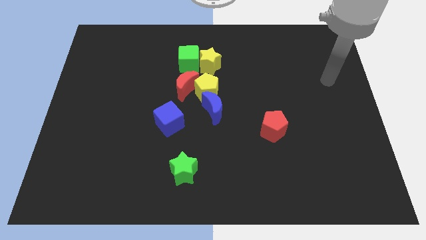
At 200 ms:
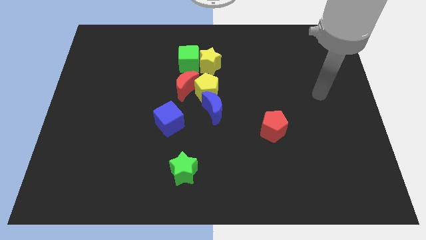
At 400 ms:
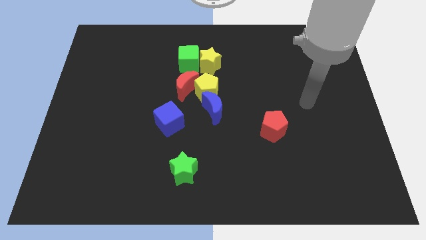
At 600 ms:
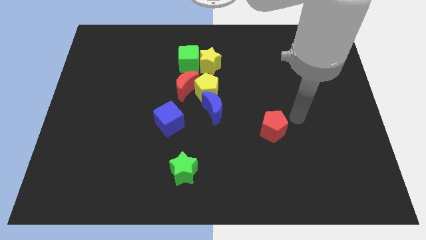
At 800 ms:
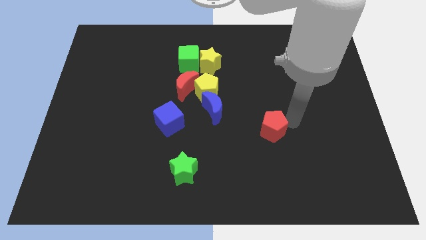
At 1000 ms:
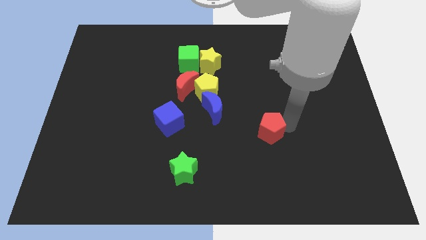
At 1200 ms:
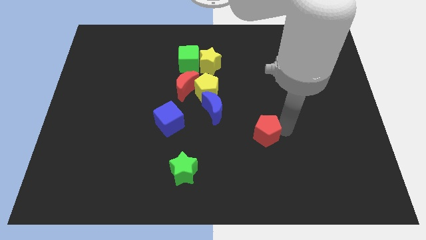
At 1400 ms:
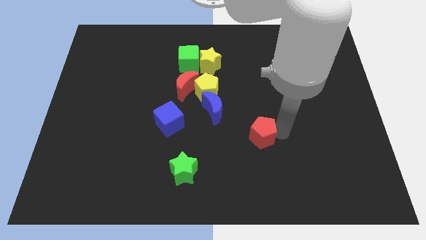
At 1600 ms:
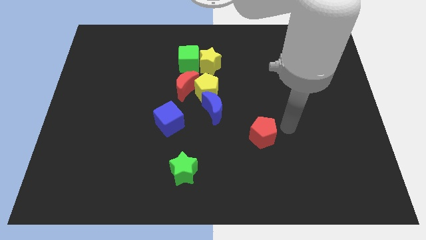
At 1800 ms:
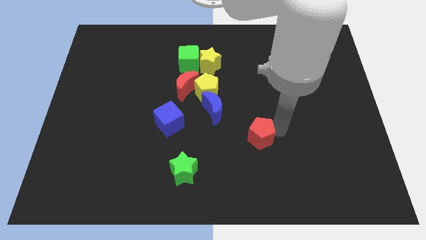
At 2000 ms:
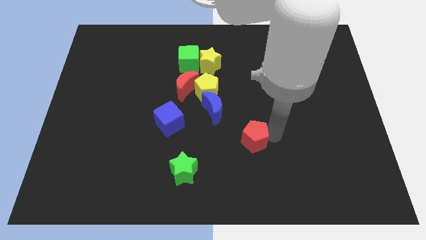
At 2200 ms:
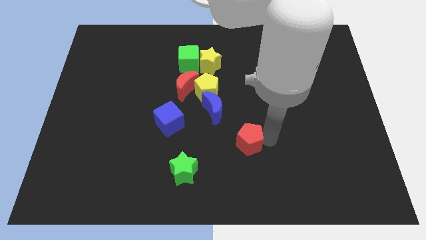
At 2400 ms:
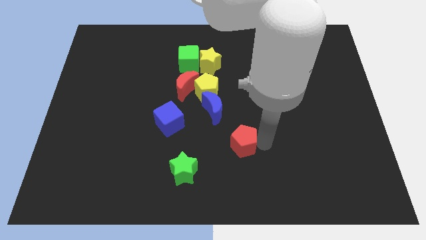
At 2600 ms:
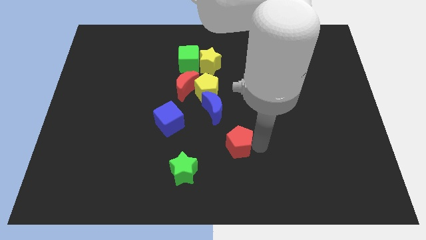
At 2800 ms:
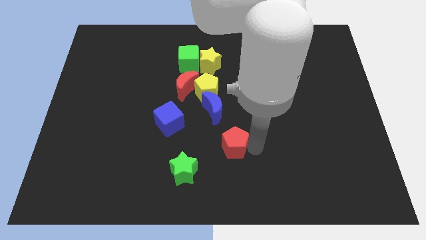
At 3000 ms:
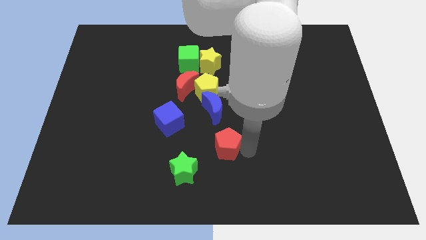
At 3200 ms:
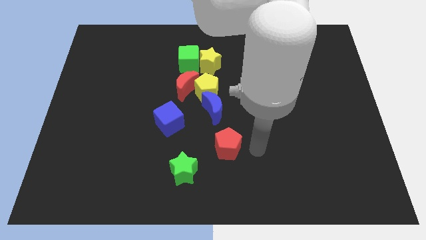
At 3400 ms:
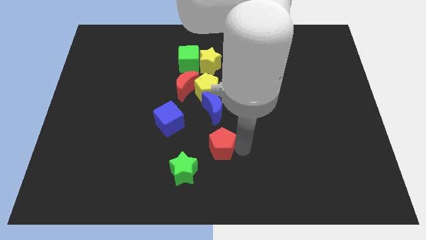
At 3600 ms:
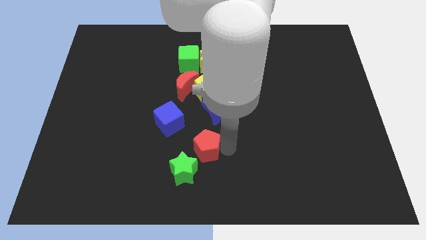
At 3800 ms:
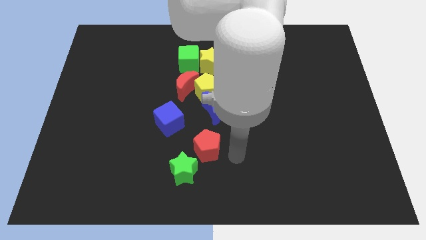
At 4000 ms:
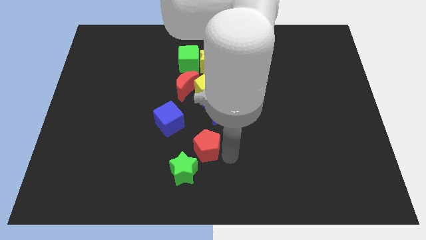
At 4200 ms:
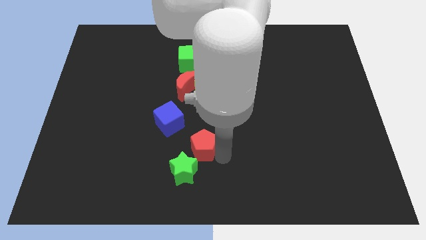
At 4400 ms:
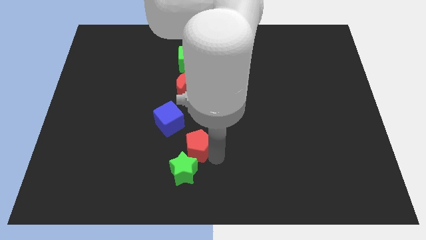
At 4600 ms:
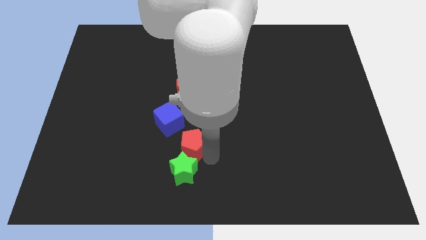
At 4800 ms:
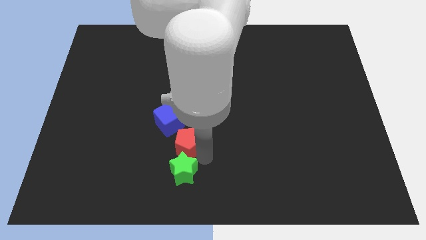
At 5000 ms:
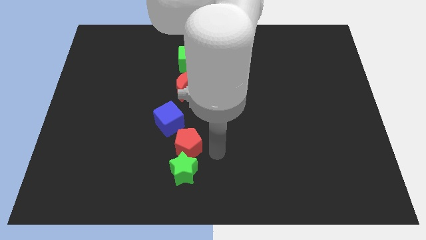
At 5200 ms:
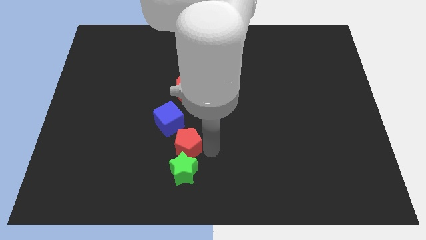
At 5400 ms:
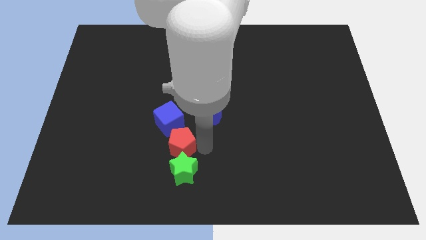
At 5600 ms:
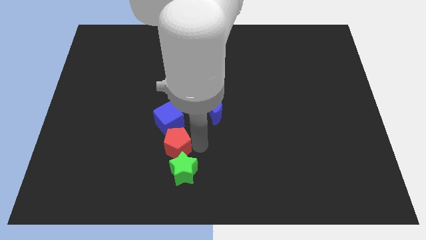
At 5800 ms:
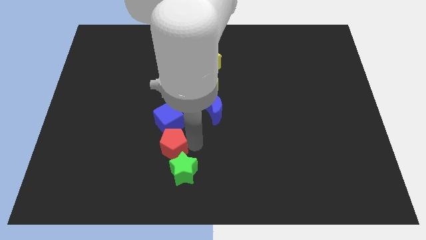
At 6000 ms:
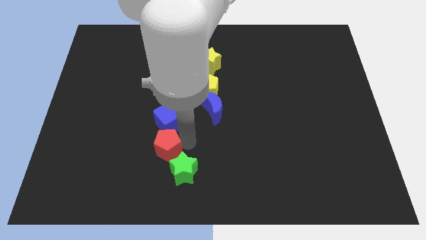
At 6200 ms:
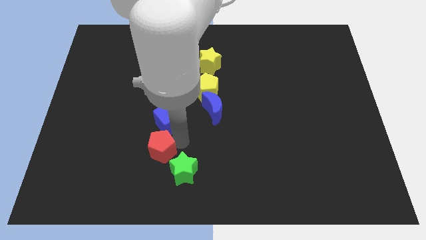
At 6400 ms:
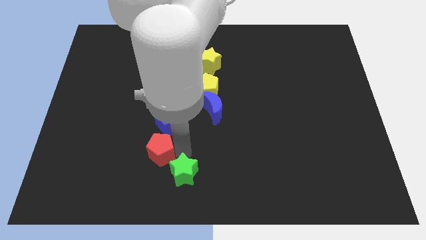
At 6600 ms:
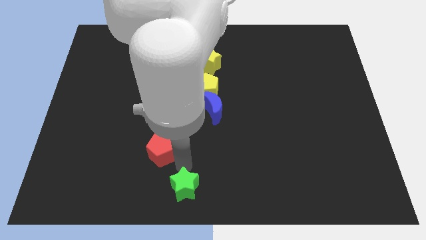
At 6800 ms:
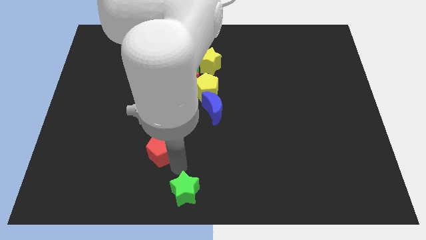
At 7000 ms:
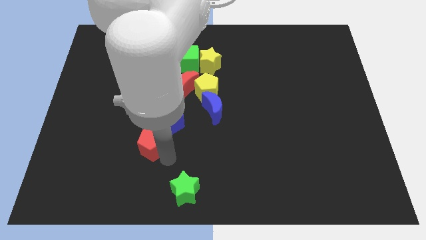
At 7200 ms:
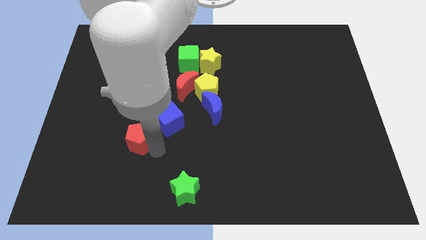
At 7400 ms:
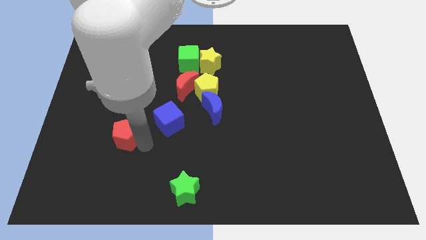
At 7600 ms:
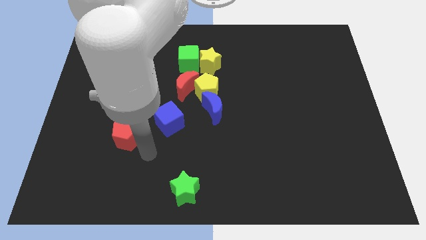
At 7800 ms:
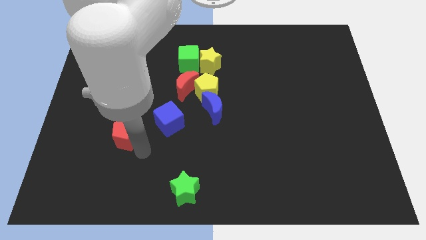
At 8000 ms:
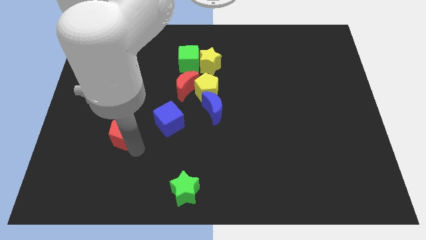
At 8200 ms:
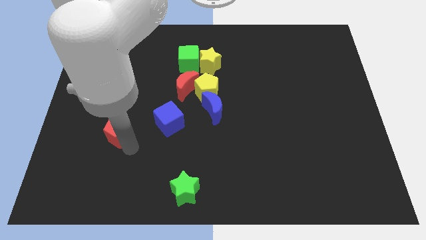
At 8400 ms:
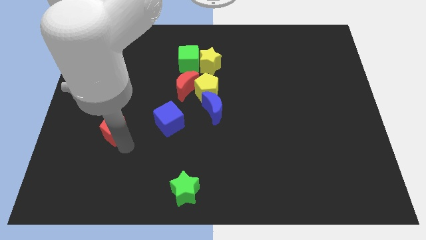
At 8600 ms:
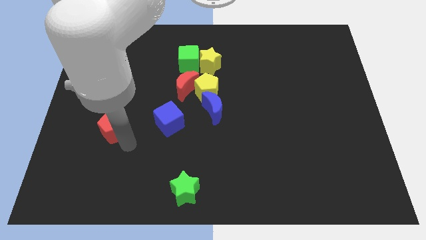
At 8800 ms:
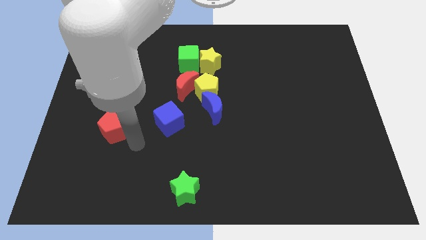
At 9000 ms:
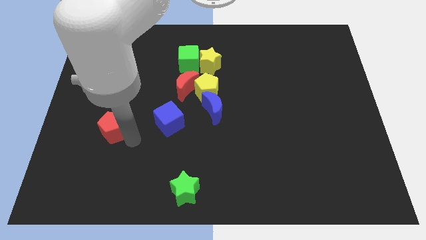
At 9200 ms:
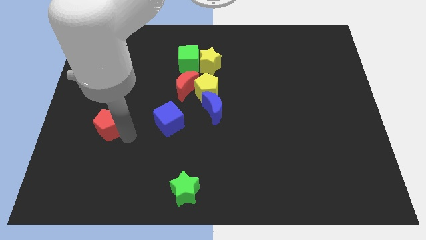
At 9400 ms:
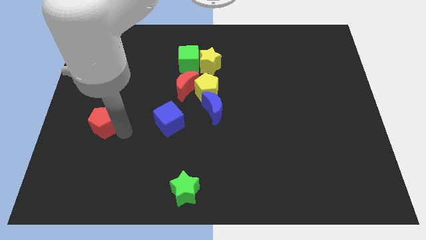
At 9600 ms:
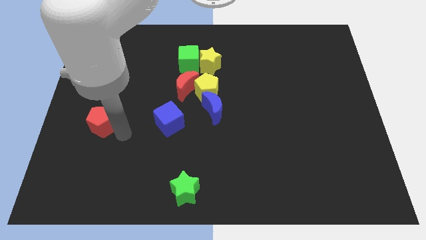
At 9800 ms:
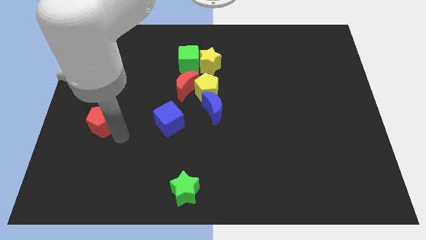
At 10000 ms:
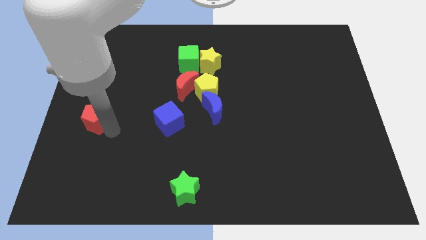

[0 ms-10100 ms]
slide the red pentagon to the left side

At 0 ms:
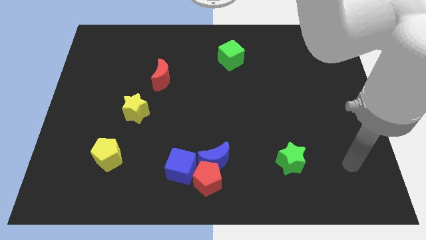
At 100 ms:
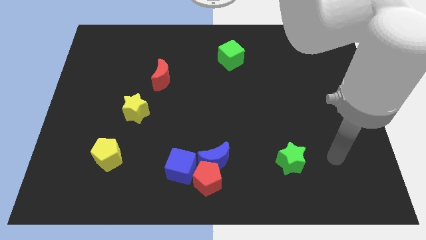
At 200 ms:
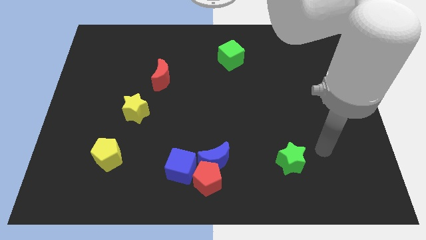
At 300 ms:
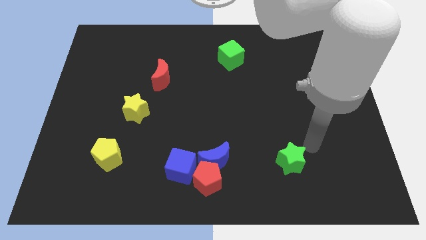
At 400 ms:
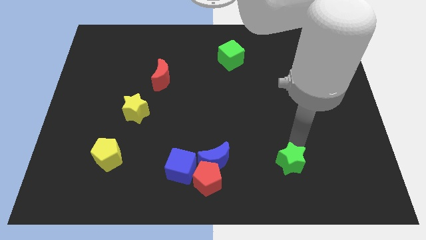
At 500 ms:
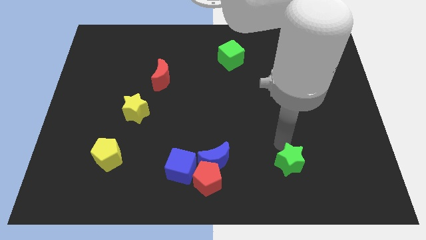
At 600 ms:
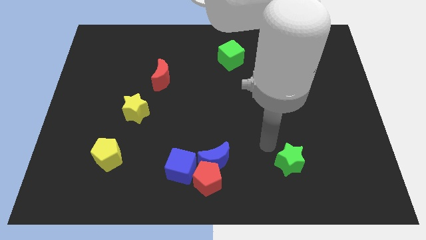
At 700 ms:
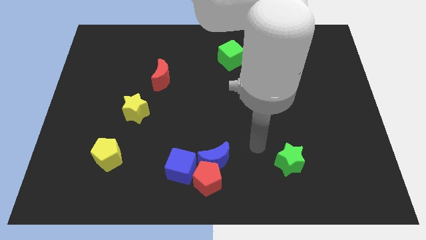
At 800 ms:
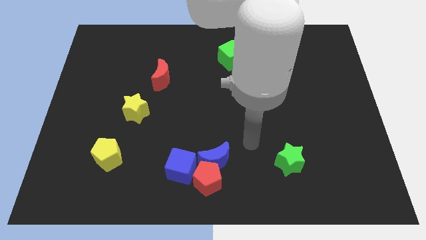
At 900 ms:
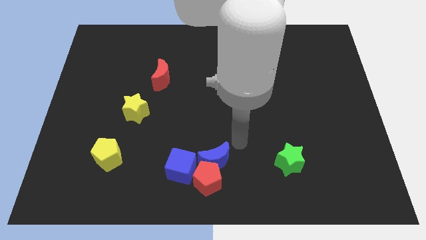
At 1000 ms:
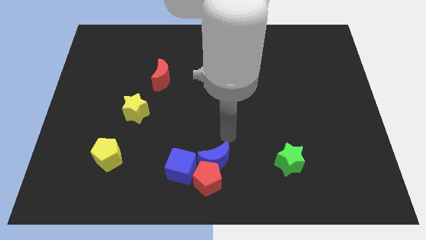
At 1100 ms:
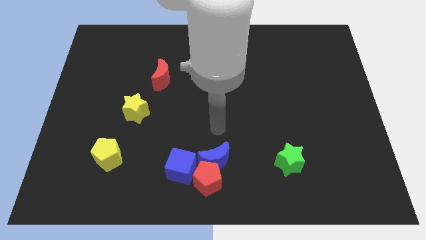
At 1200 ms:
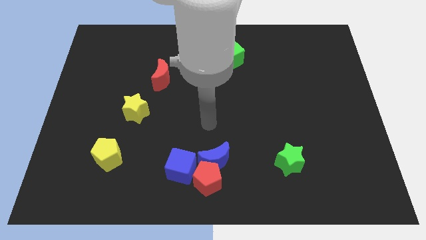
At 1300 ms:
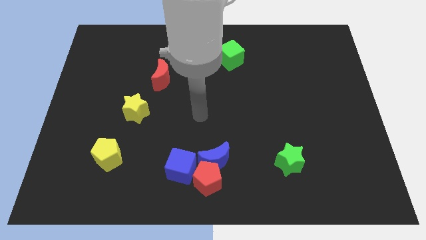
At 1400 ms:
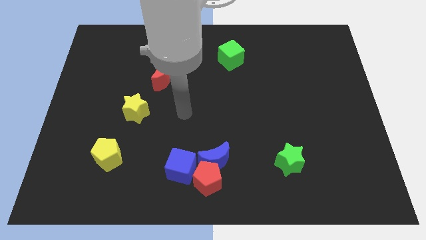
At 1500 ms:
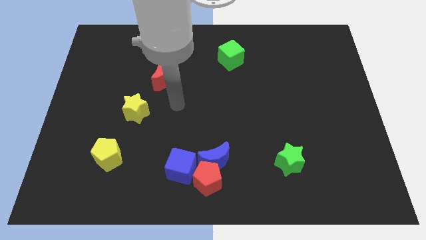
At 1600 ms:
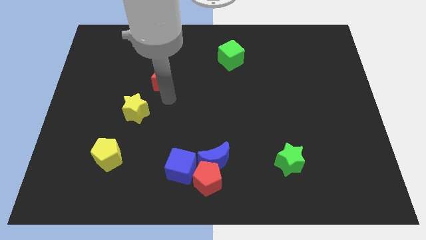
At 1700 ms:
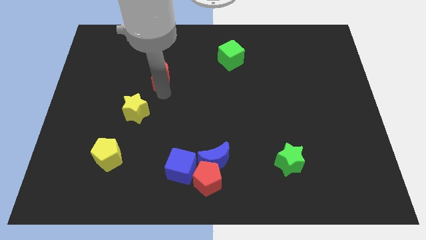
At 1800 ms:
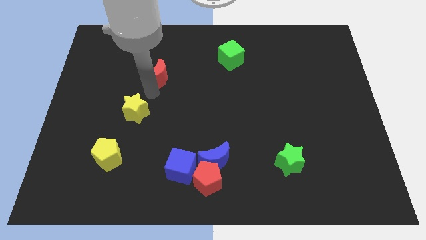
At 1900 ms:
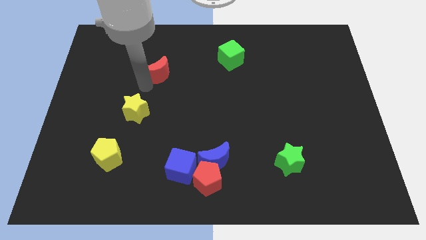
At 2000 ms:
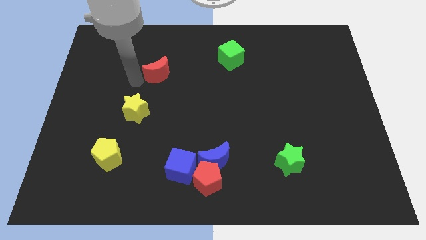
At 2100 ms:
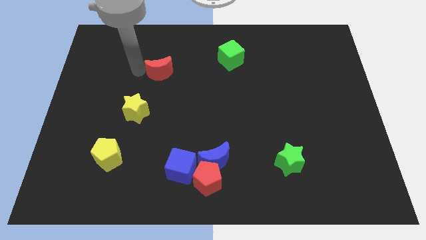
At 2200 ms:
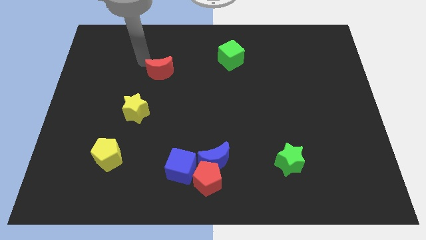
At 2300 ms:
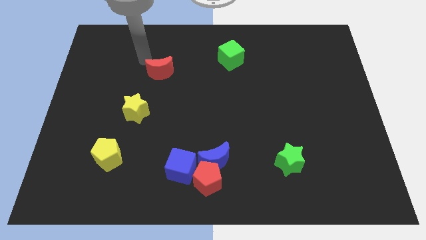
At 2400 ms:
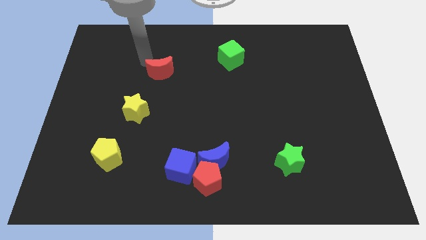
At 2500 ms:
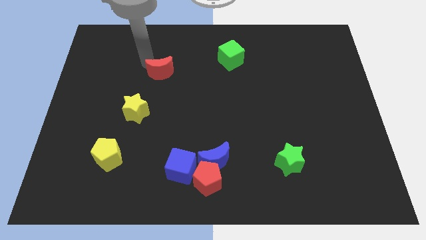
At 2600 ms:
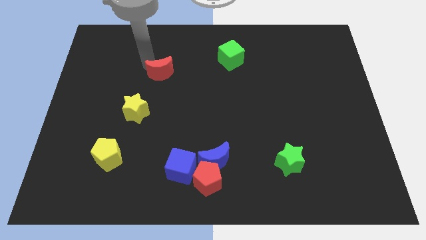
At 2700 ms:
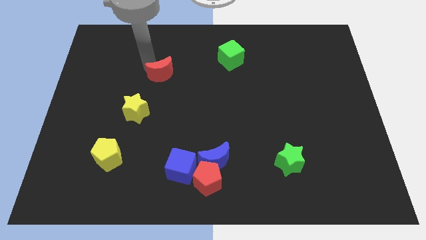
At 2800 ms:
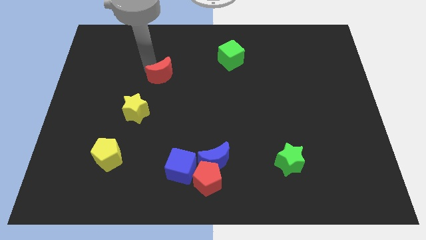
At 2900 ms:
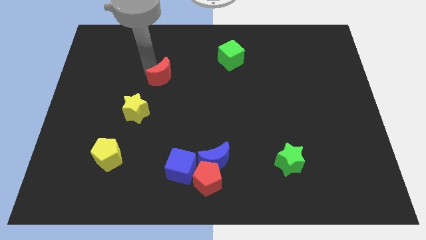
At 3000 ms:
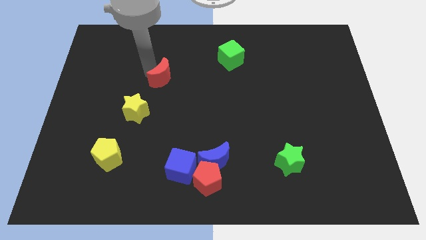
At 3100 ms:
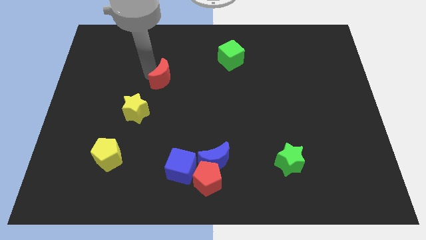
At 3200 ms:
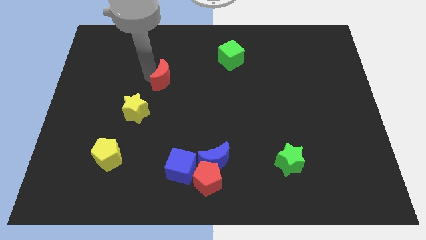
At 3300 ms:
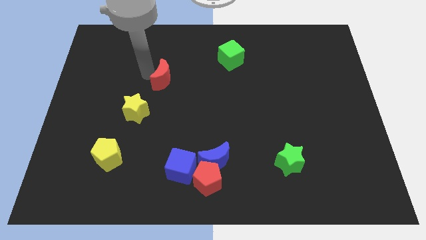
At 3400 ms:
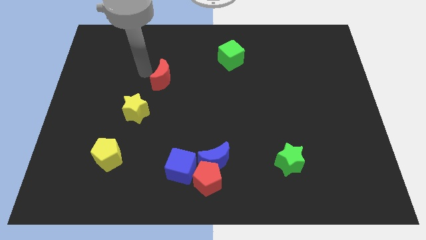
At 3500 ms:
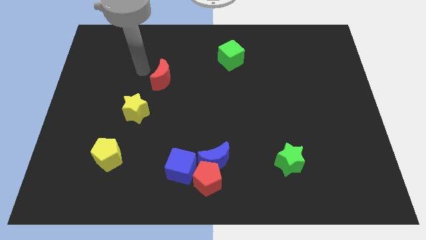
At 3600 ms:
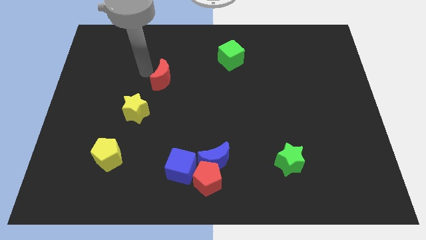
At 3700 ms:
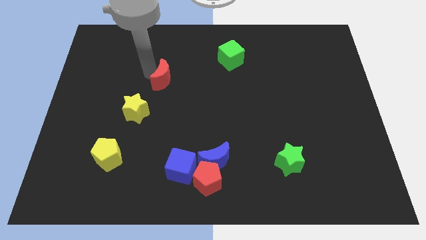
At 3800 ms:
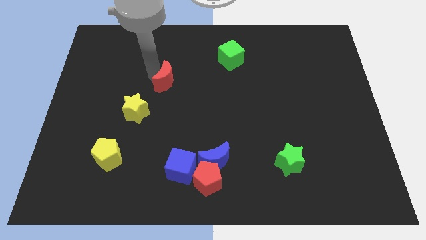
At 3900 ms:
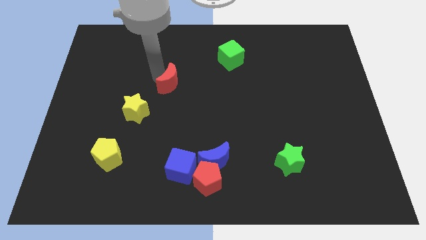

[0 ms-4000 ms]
put the red moon to the center
